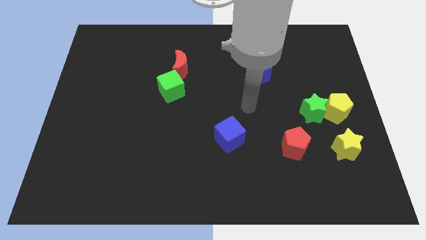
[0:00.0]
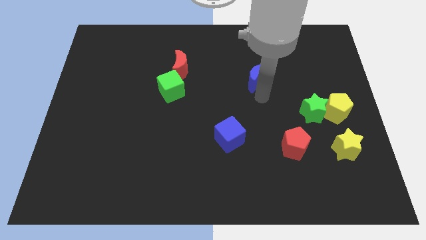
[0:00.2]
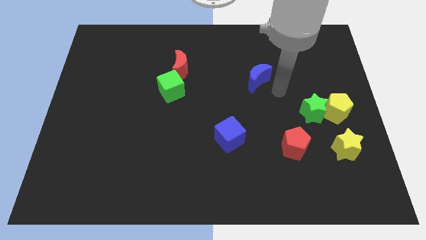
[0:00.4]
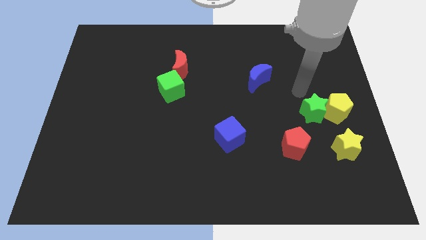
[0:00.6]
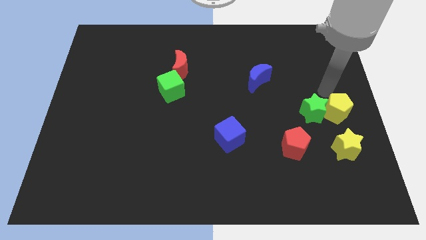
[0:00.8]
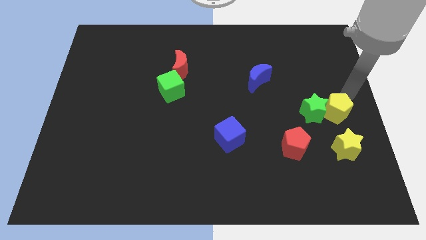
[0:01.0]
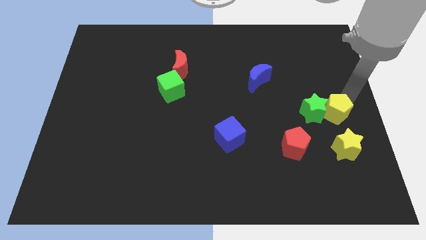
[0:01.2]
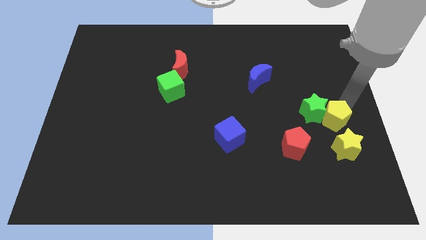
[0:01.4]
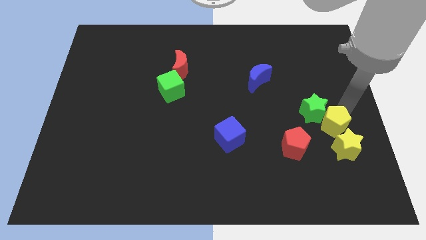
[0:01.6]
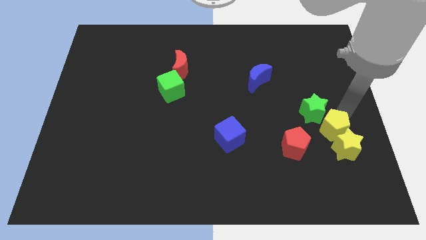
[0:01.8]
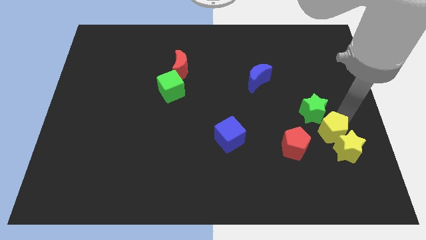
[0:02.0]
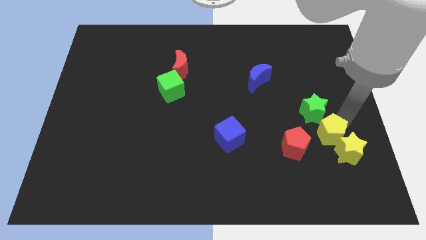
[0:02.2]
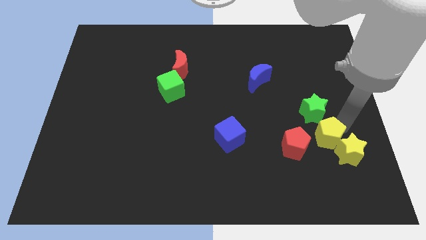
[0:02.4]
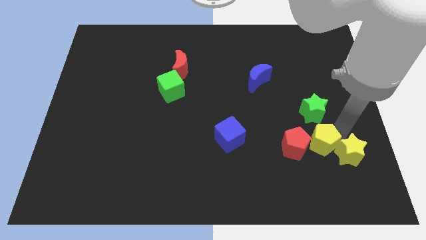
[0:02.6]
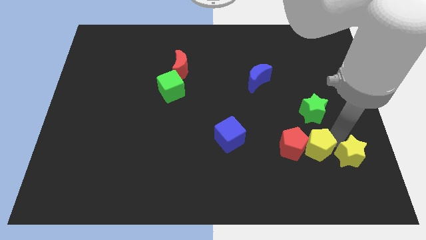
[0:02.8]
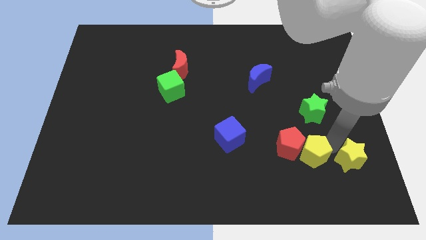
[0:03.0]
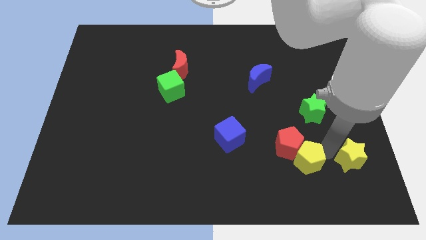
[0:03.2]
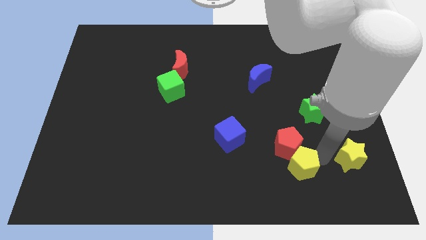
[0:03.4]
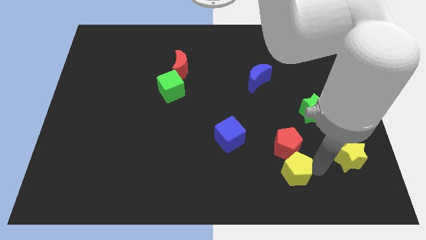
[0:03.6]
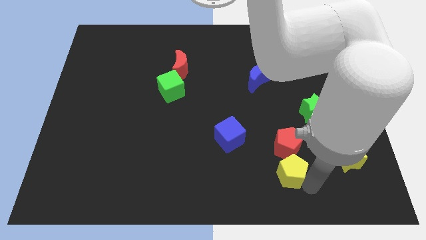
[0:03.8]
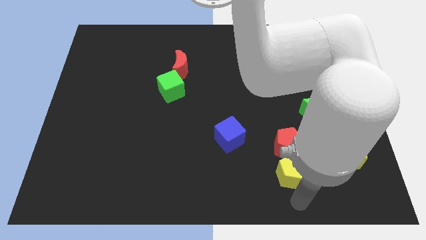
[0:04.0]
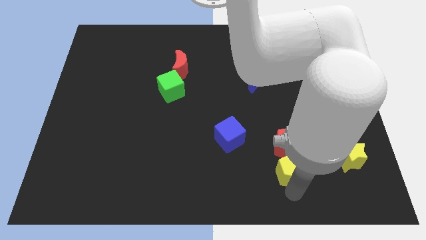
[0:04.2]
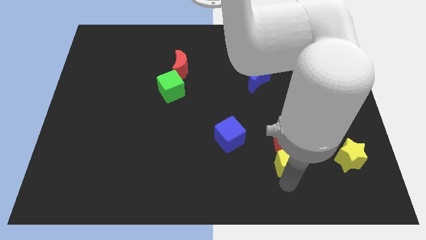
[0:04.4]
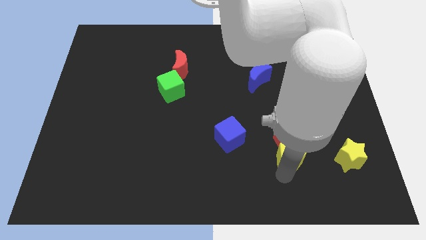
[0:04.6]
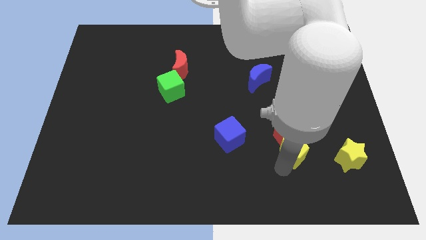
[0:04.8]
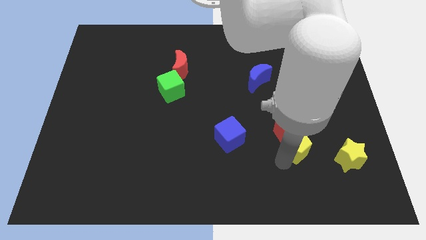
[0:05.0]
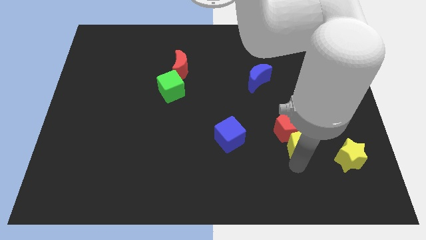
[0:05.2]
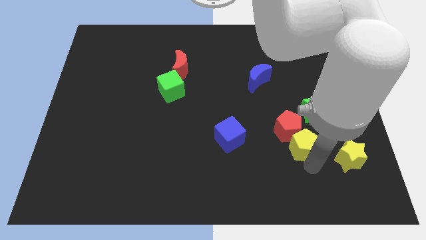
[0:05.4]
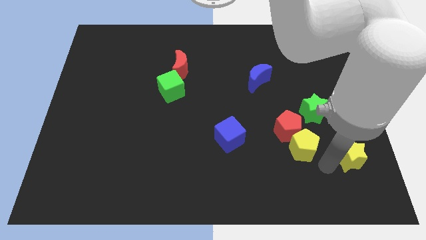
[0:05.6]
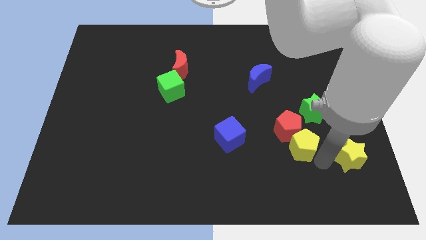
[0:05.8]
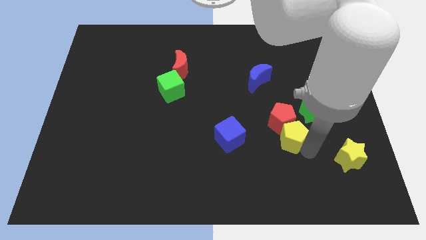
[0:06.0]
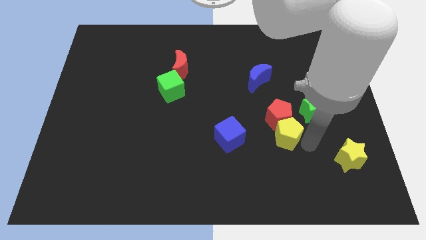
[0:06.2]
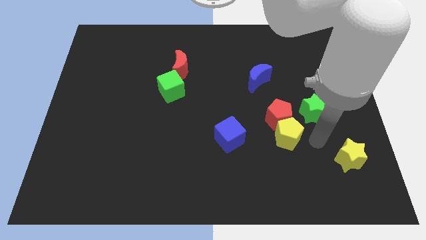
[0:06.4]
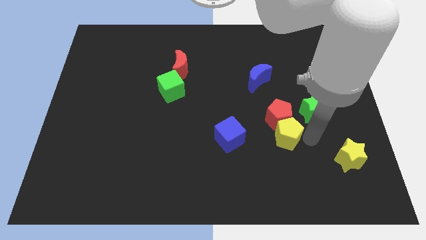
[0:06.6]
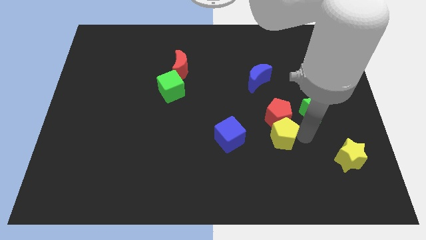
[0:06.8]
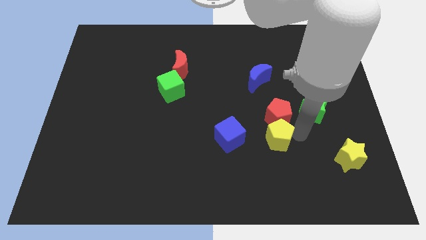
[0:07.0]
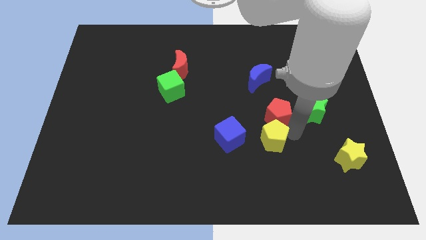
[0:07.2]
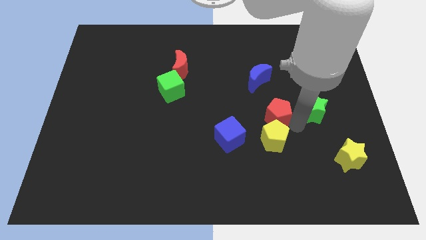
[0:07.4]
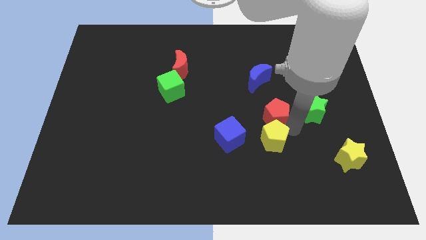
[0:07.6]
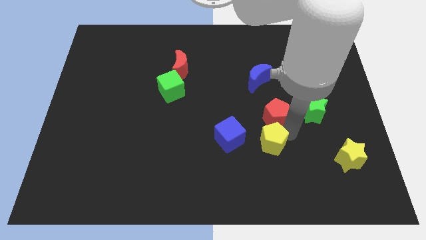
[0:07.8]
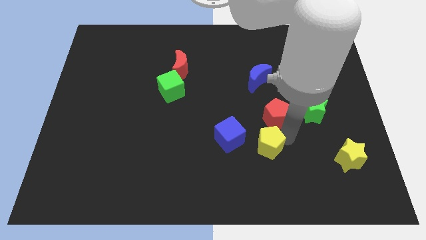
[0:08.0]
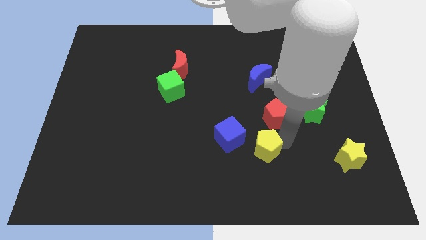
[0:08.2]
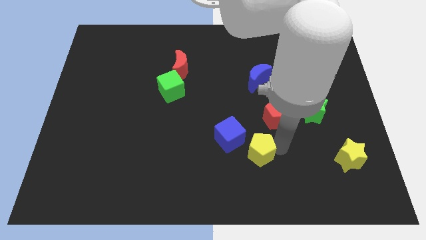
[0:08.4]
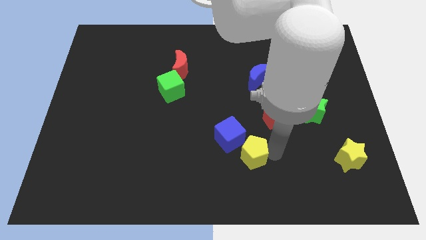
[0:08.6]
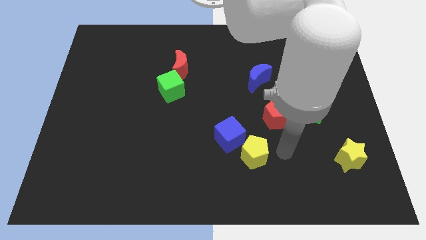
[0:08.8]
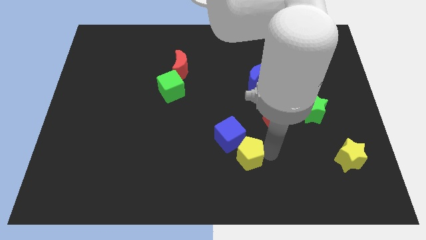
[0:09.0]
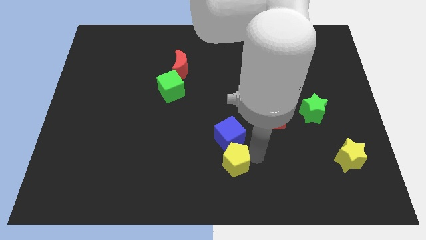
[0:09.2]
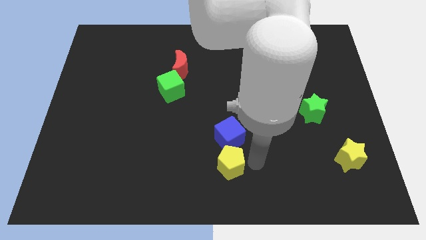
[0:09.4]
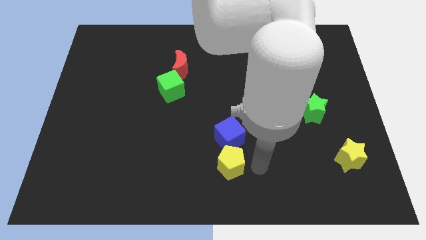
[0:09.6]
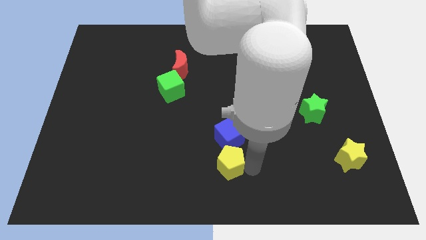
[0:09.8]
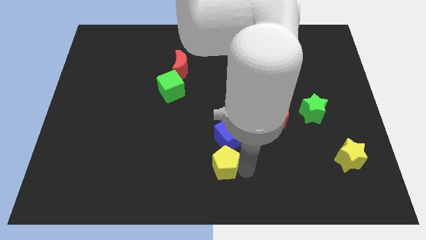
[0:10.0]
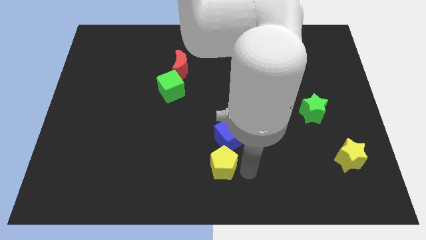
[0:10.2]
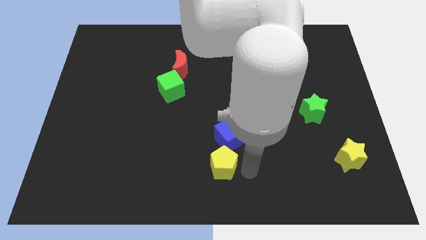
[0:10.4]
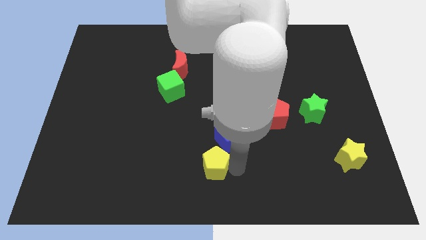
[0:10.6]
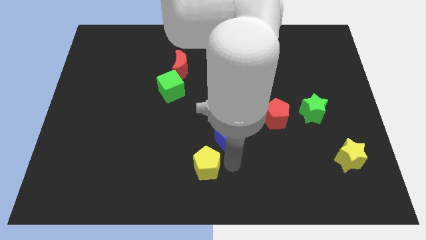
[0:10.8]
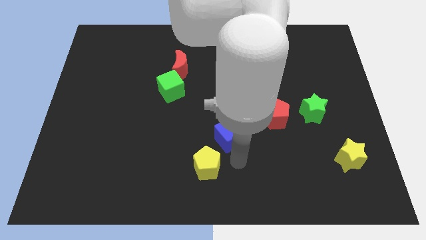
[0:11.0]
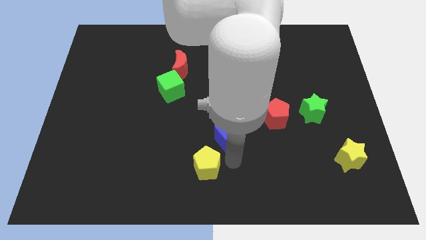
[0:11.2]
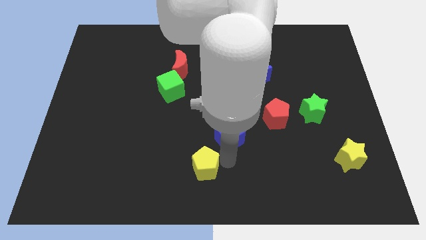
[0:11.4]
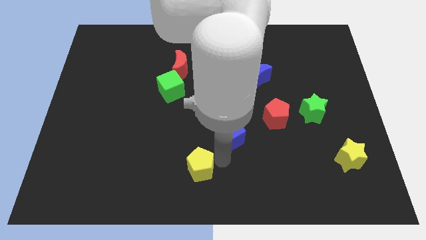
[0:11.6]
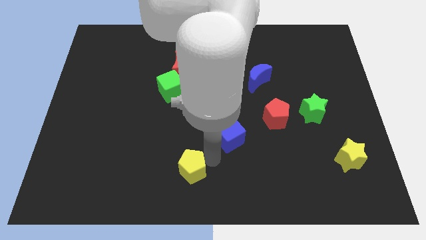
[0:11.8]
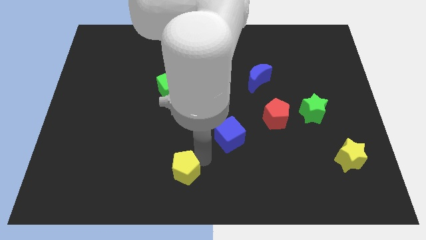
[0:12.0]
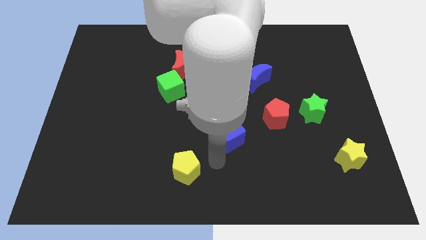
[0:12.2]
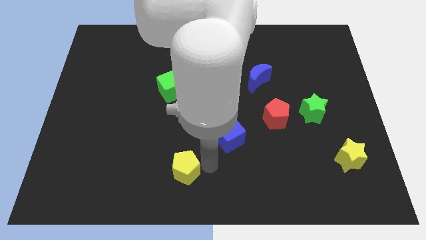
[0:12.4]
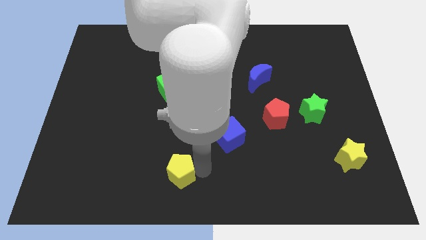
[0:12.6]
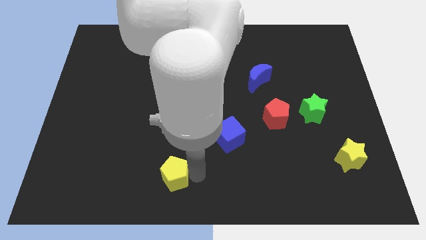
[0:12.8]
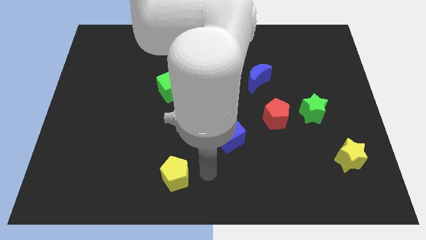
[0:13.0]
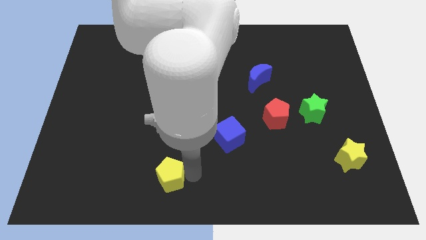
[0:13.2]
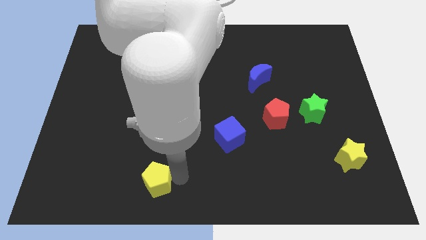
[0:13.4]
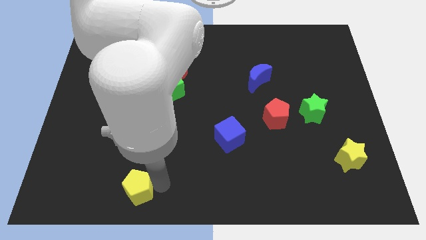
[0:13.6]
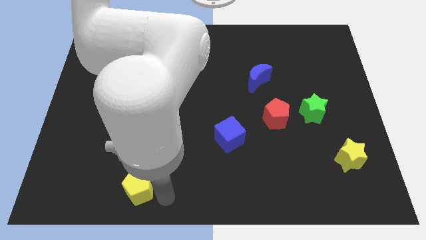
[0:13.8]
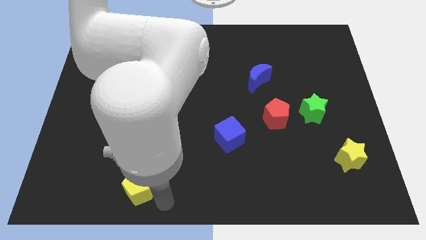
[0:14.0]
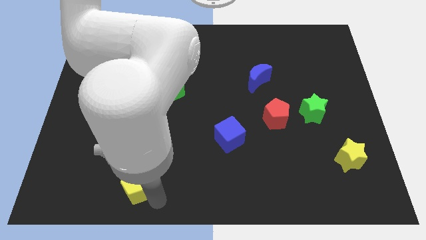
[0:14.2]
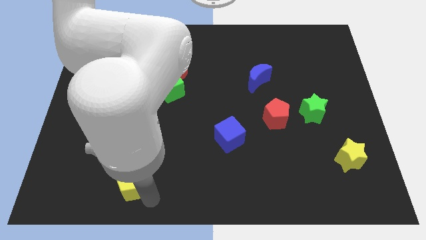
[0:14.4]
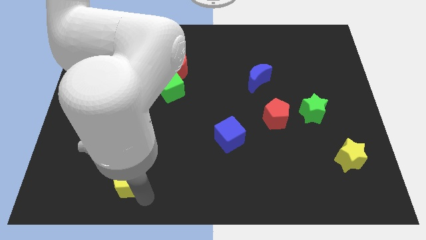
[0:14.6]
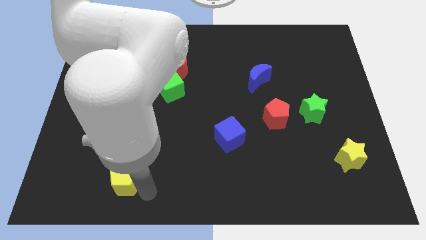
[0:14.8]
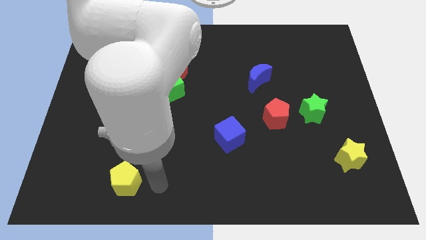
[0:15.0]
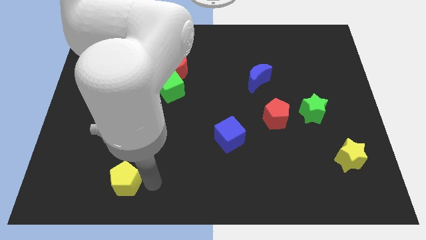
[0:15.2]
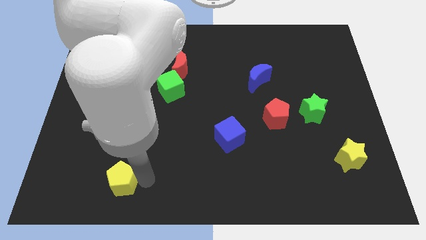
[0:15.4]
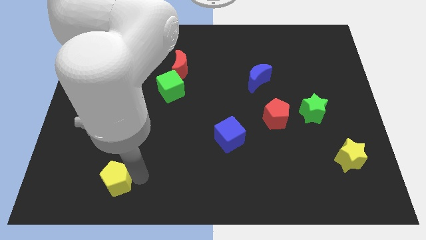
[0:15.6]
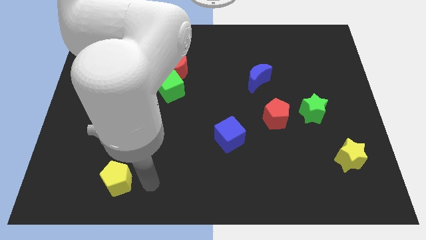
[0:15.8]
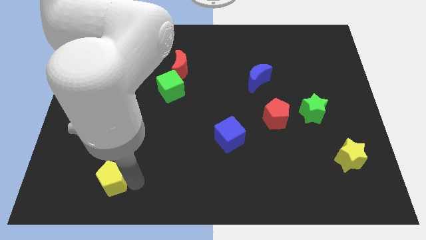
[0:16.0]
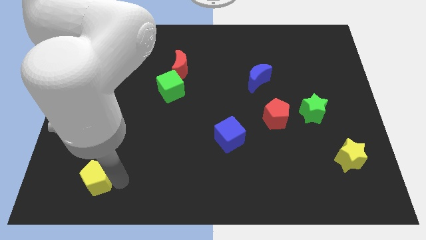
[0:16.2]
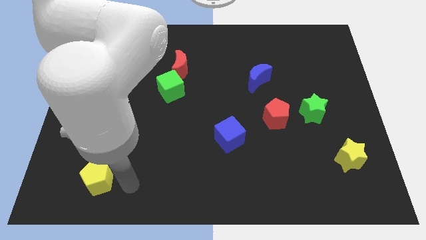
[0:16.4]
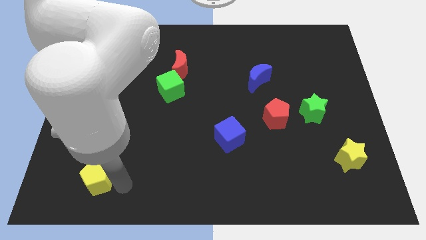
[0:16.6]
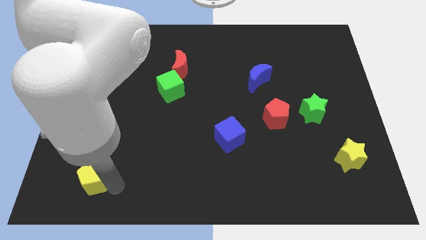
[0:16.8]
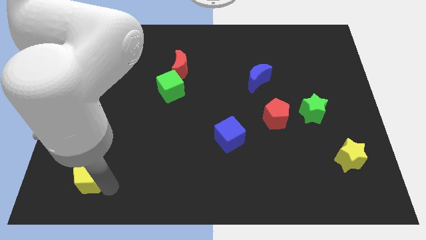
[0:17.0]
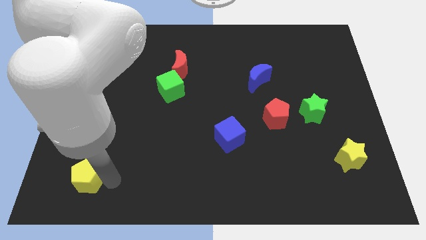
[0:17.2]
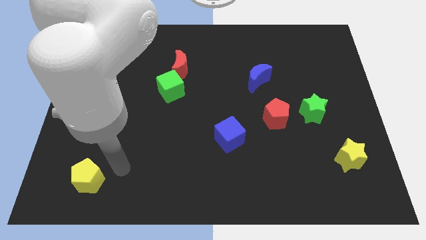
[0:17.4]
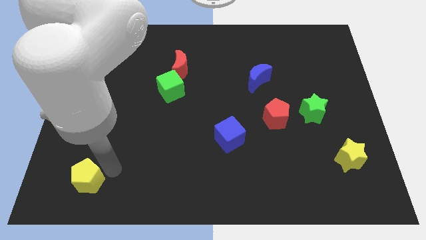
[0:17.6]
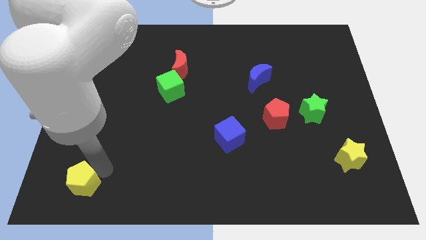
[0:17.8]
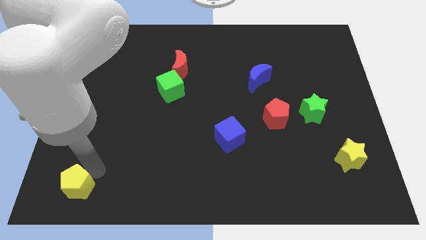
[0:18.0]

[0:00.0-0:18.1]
move the yellow pentagon to the bottom left
